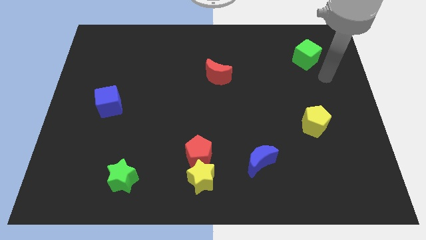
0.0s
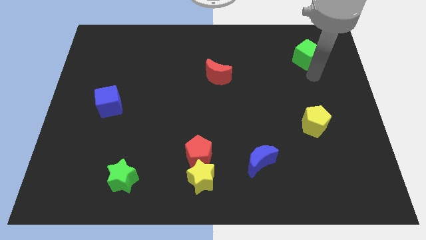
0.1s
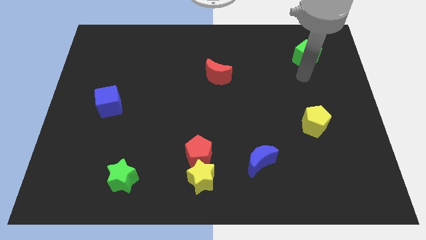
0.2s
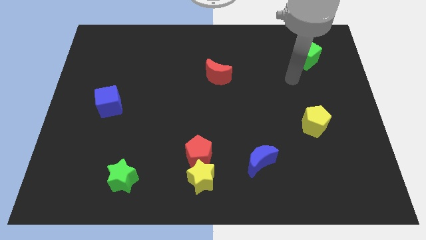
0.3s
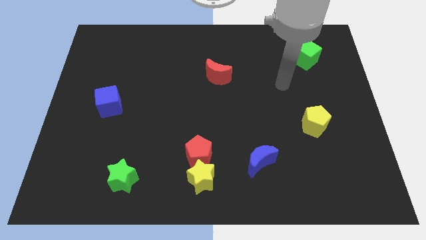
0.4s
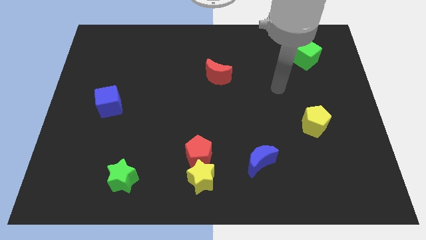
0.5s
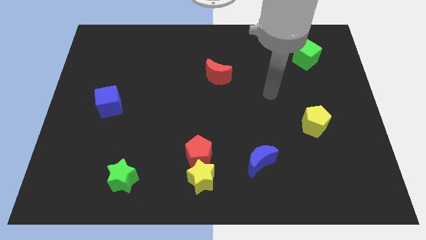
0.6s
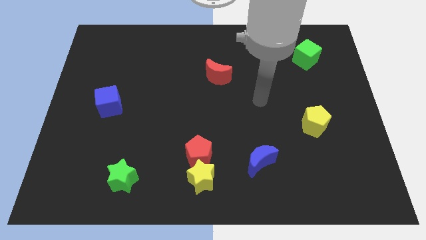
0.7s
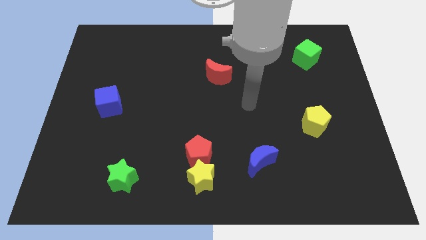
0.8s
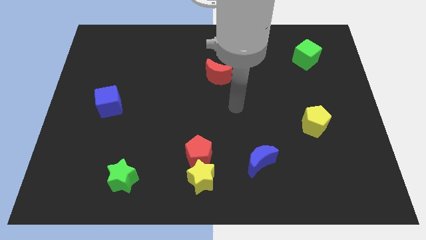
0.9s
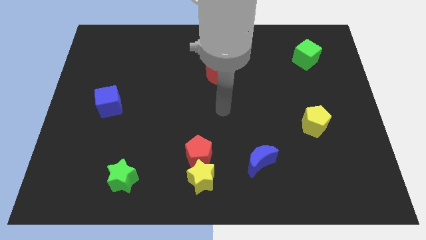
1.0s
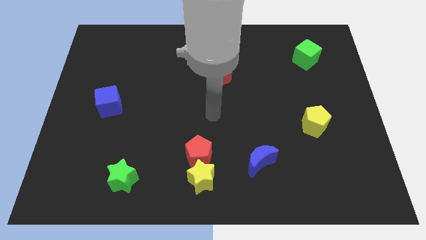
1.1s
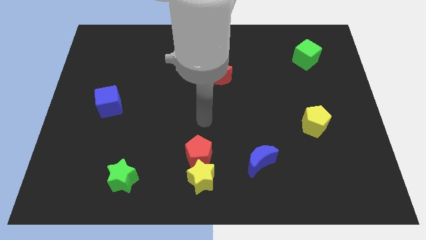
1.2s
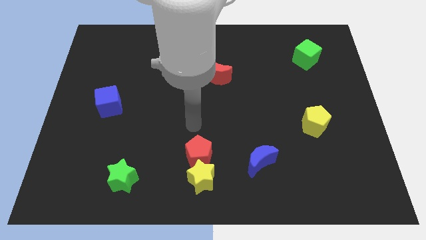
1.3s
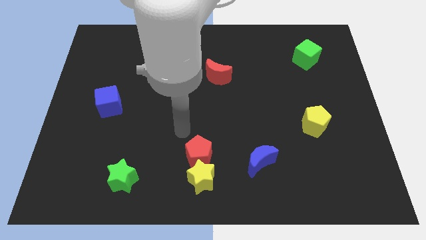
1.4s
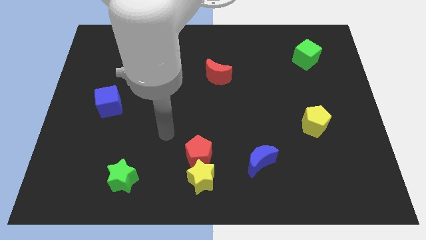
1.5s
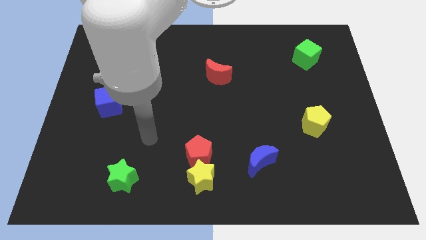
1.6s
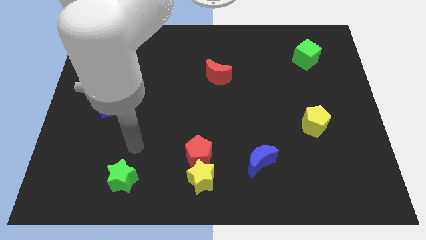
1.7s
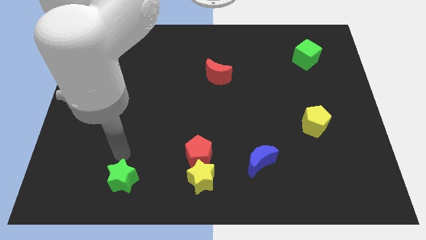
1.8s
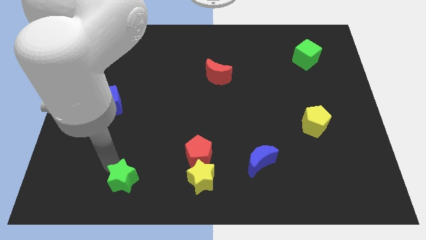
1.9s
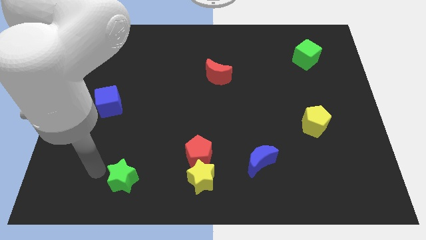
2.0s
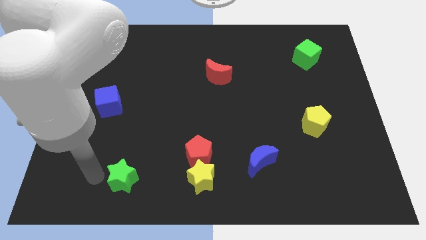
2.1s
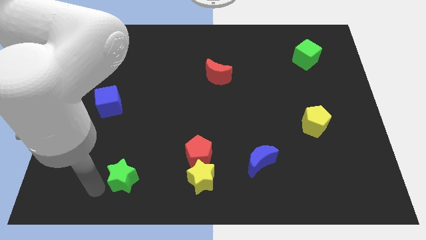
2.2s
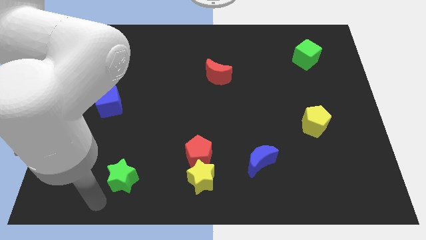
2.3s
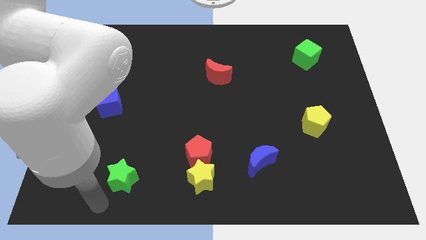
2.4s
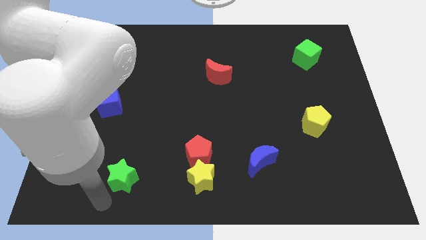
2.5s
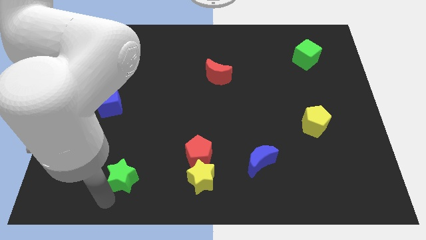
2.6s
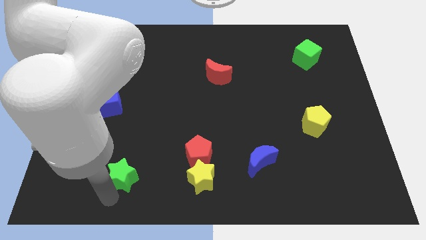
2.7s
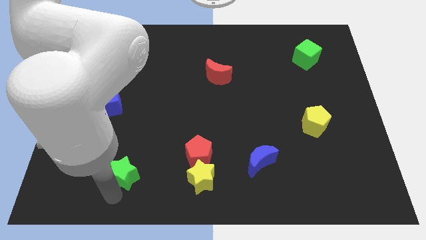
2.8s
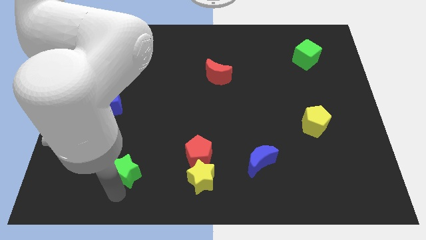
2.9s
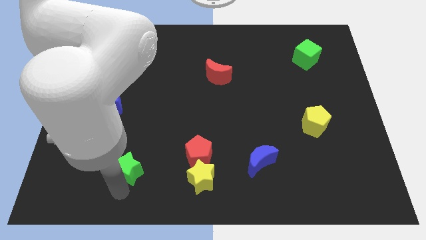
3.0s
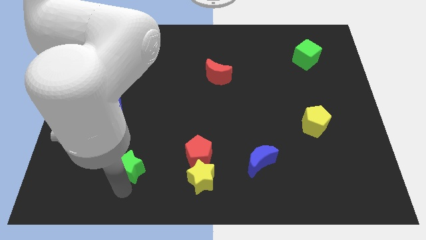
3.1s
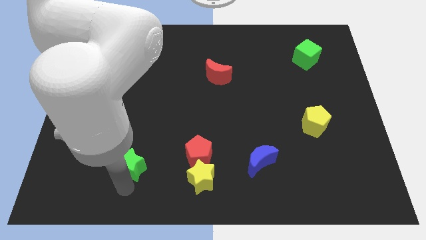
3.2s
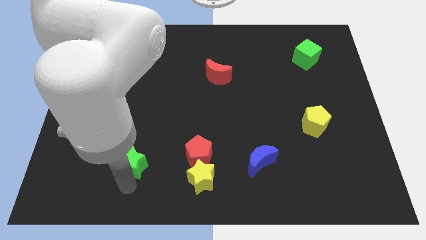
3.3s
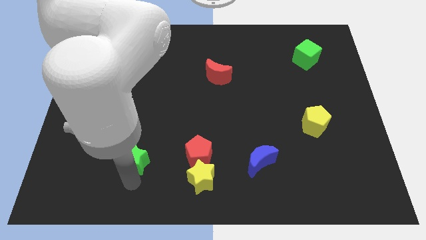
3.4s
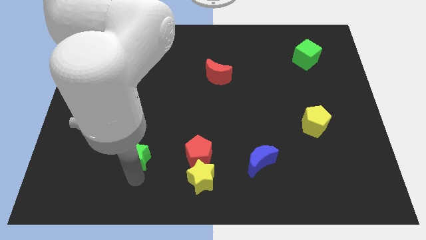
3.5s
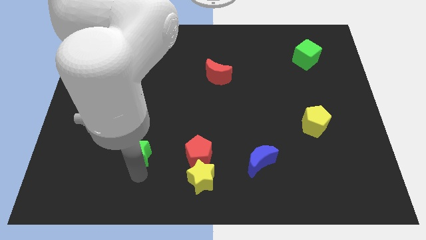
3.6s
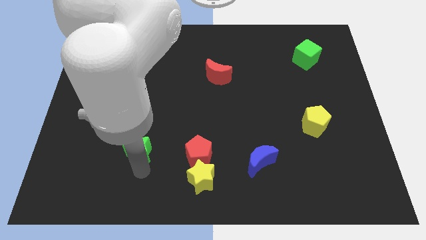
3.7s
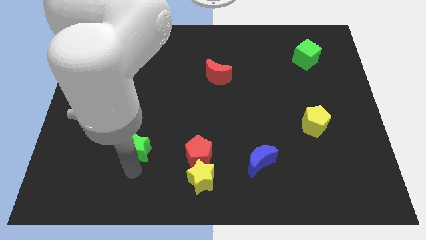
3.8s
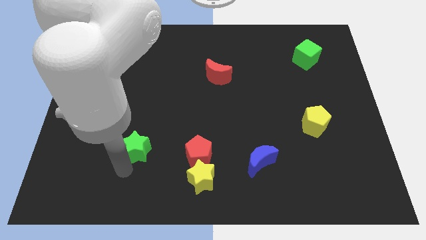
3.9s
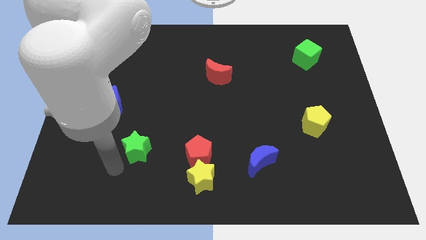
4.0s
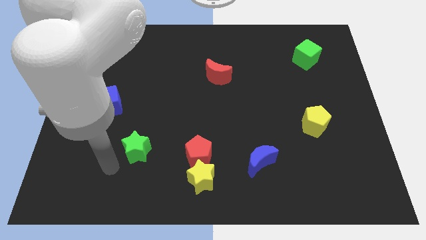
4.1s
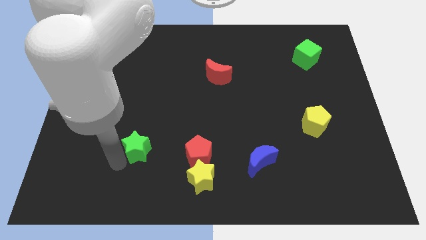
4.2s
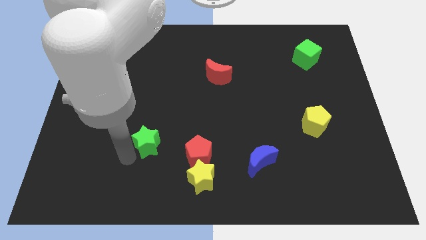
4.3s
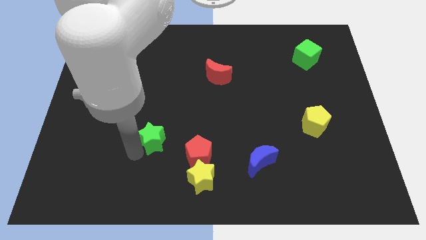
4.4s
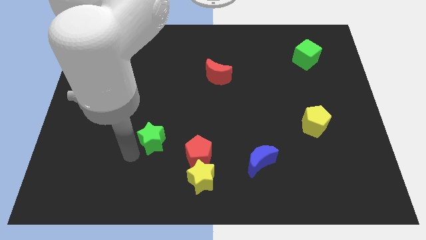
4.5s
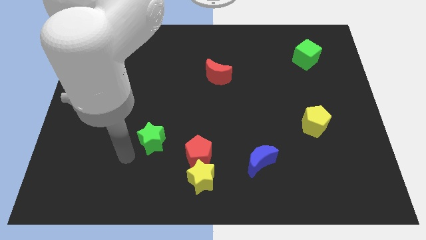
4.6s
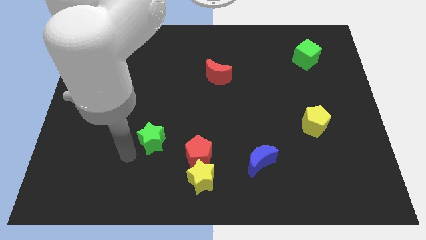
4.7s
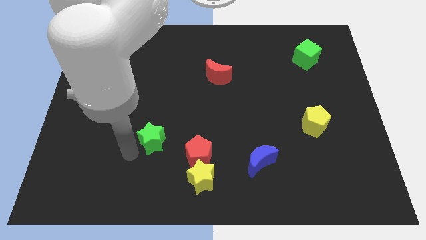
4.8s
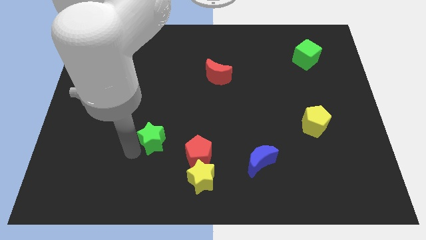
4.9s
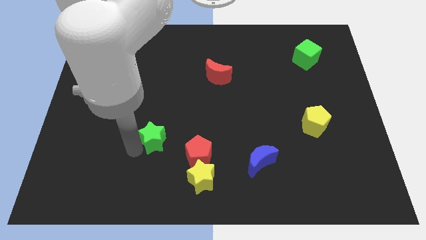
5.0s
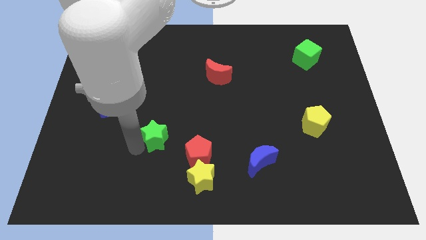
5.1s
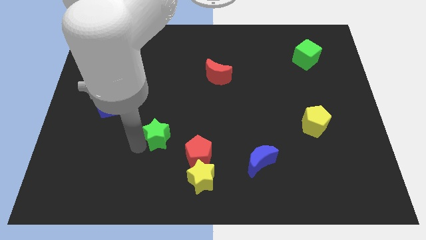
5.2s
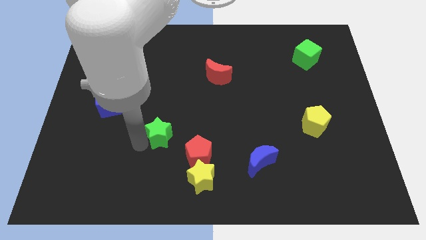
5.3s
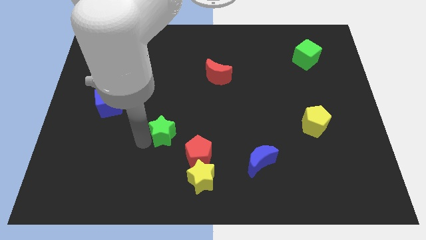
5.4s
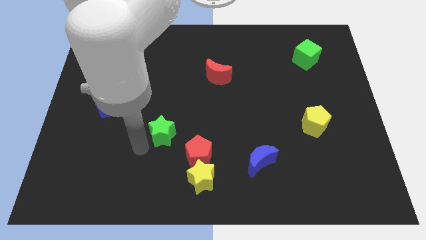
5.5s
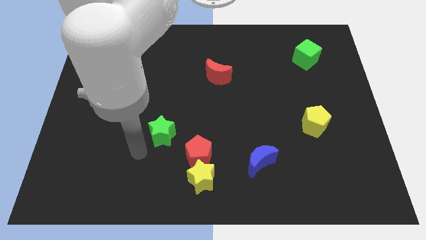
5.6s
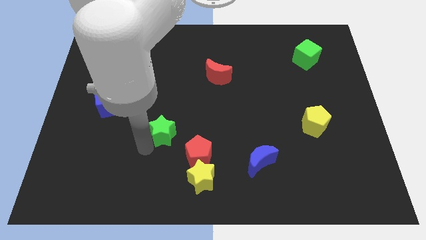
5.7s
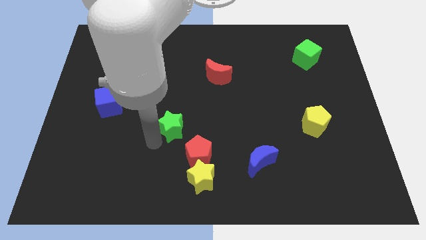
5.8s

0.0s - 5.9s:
move the green star to the middle

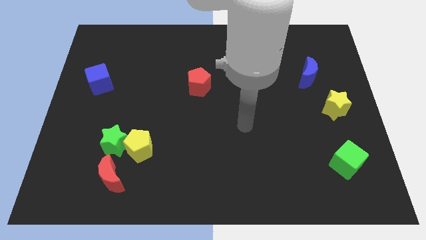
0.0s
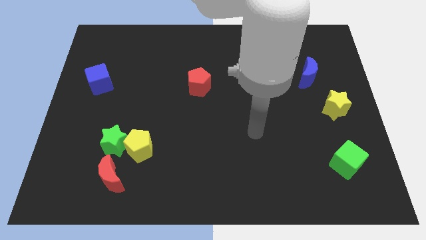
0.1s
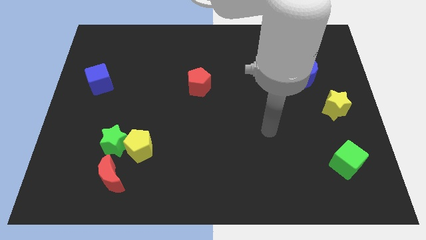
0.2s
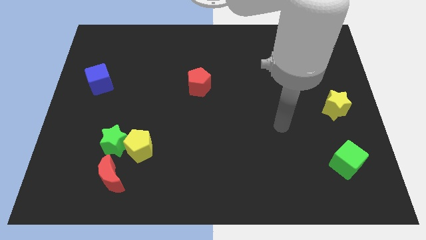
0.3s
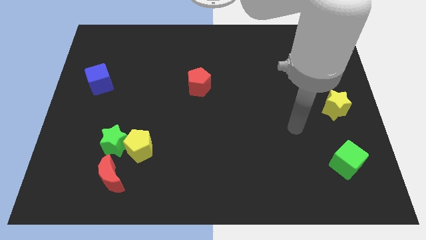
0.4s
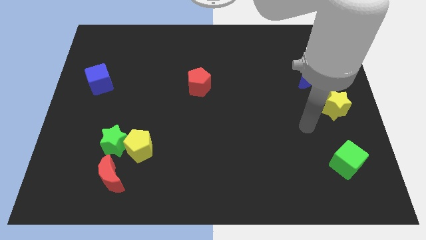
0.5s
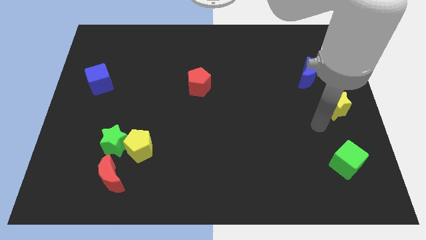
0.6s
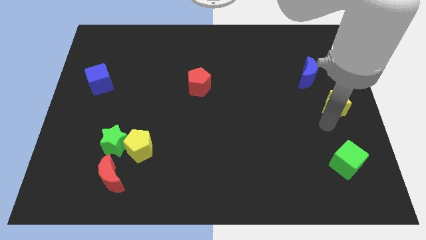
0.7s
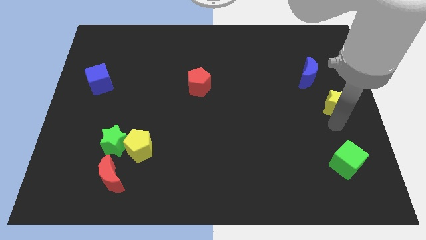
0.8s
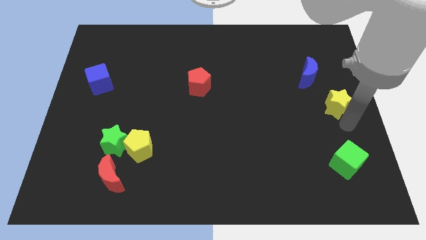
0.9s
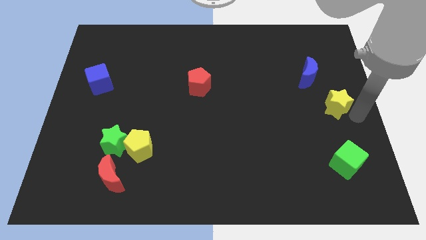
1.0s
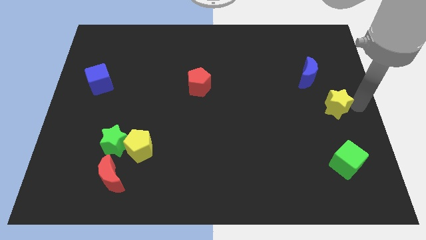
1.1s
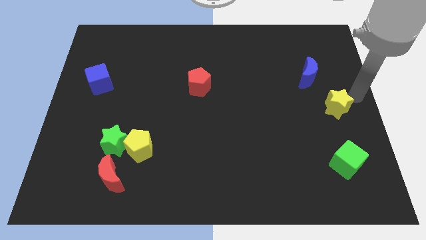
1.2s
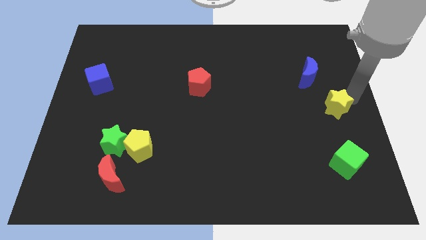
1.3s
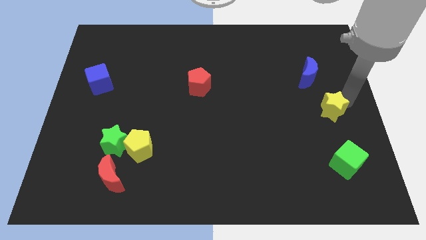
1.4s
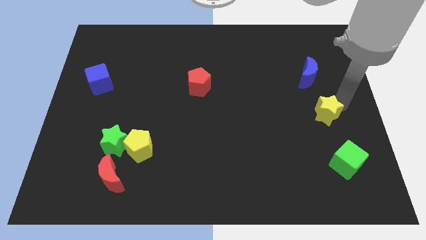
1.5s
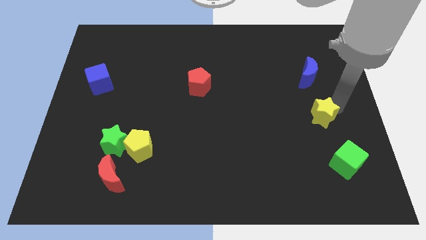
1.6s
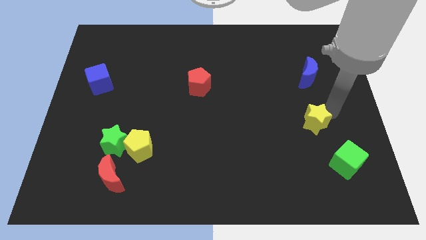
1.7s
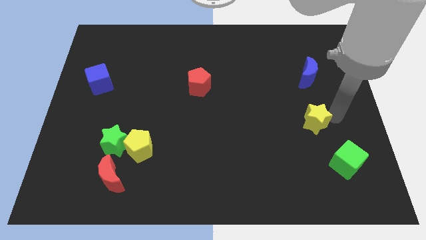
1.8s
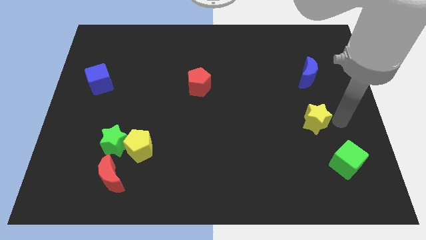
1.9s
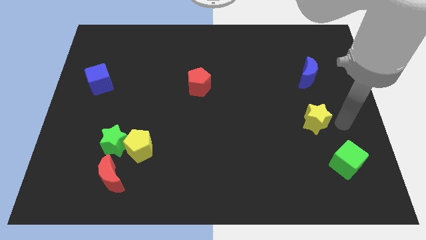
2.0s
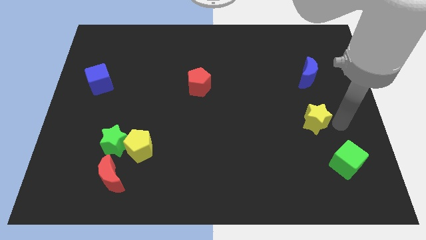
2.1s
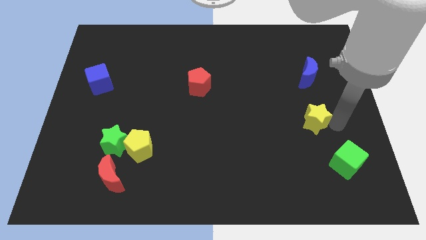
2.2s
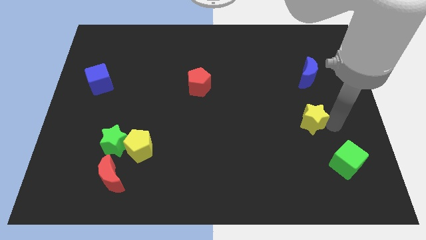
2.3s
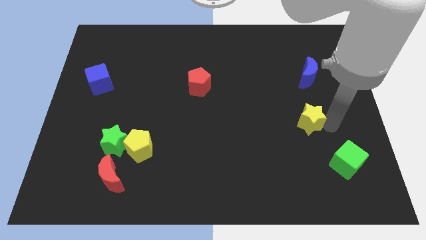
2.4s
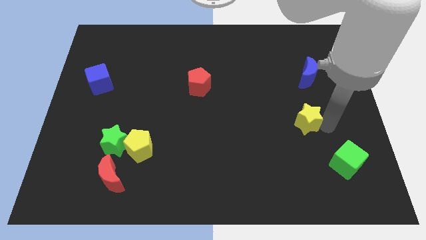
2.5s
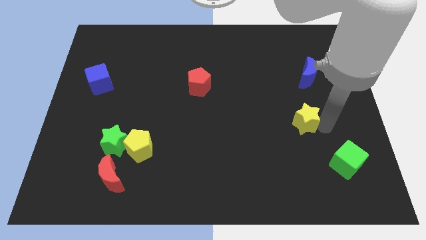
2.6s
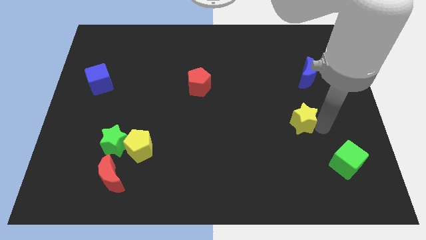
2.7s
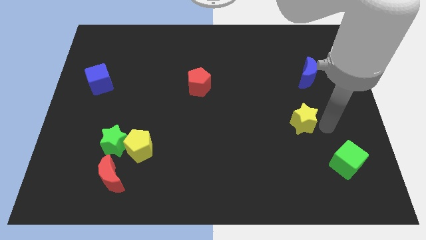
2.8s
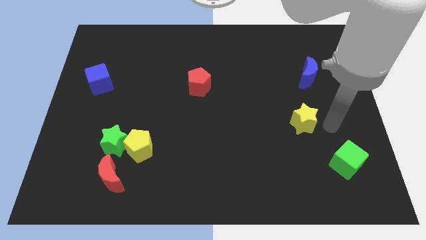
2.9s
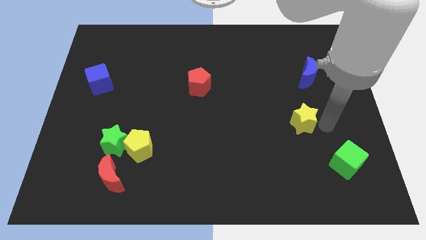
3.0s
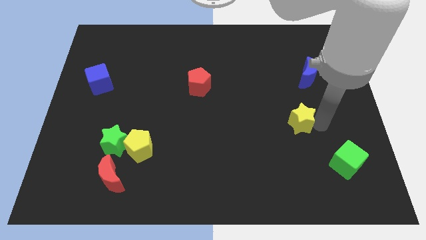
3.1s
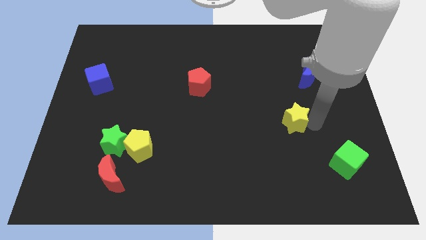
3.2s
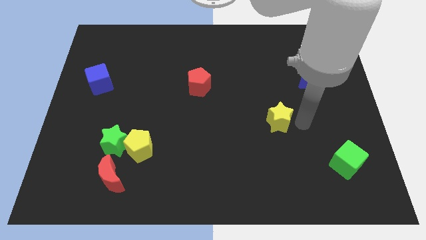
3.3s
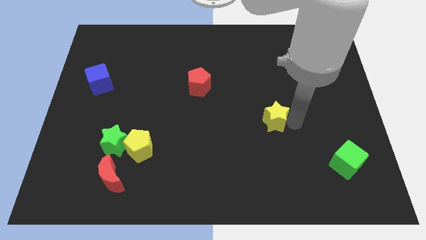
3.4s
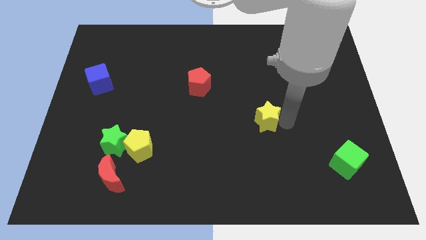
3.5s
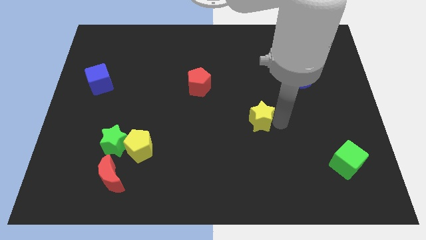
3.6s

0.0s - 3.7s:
put the yellow star to the center of the board
